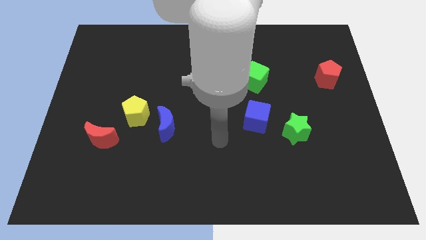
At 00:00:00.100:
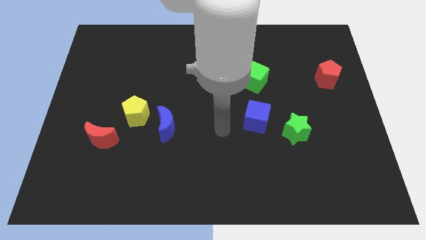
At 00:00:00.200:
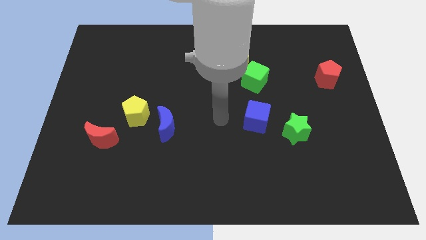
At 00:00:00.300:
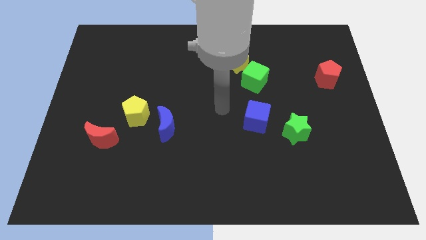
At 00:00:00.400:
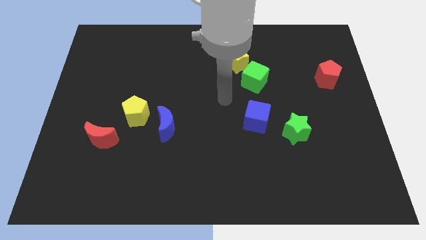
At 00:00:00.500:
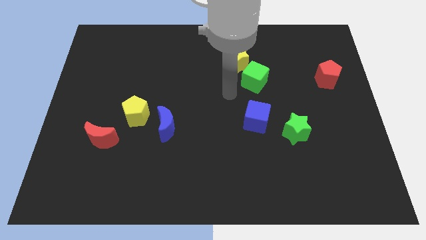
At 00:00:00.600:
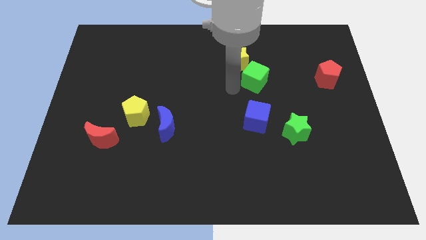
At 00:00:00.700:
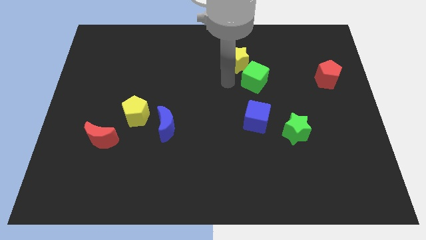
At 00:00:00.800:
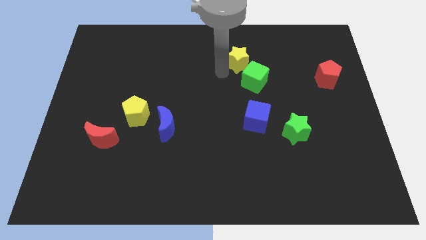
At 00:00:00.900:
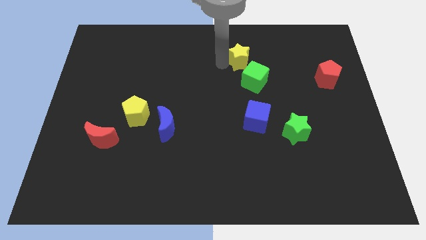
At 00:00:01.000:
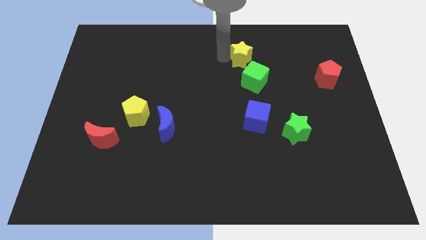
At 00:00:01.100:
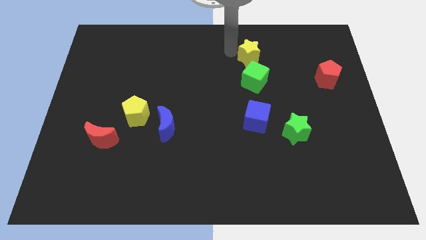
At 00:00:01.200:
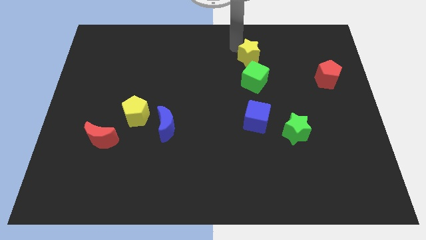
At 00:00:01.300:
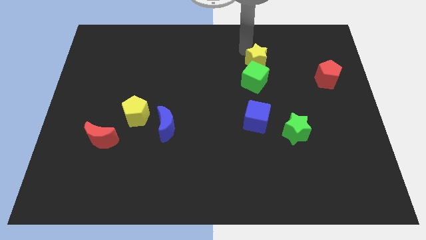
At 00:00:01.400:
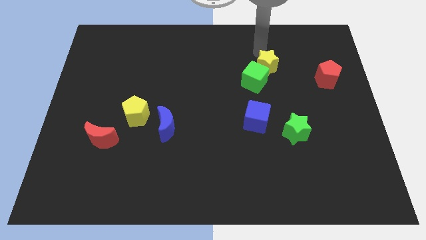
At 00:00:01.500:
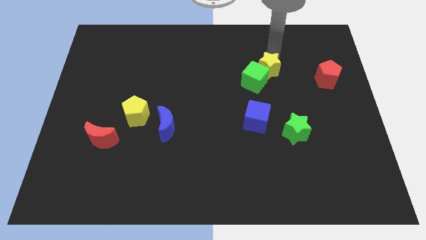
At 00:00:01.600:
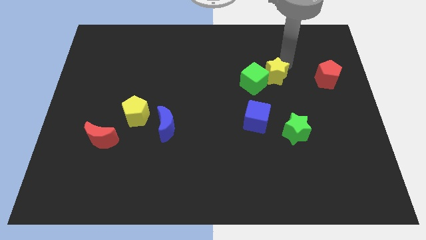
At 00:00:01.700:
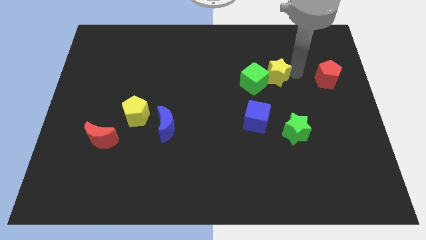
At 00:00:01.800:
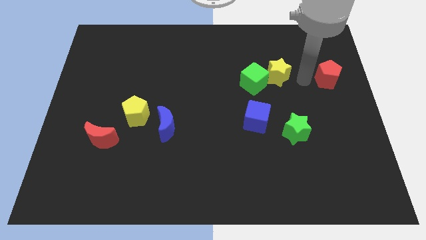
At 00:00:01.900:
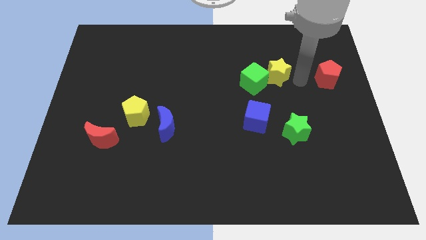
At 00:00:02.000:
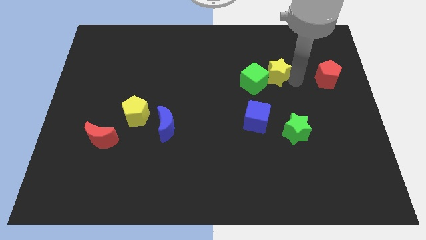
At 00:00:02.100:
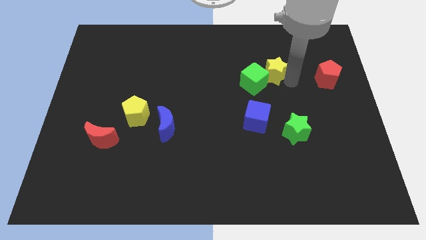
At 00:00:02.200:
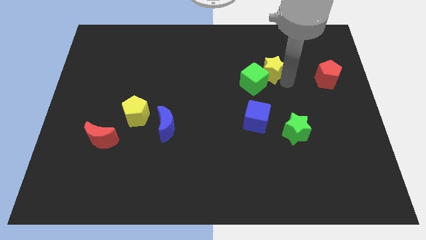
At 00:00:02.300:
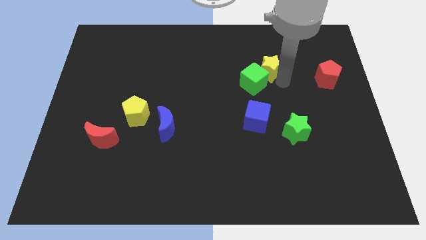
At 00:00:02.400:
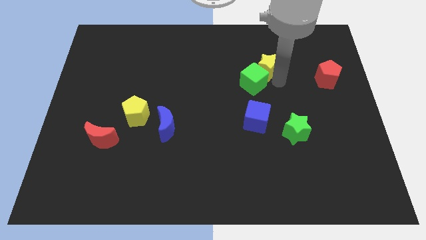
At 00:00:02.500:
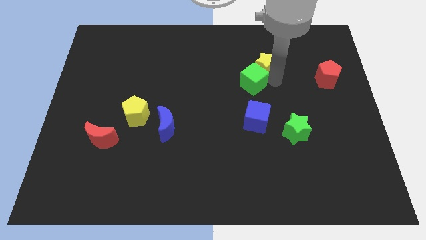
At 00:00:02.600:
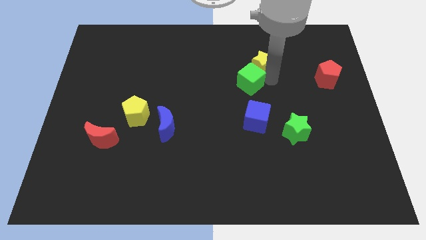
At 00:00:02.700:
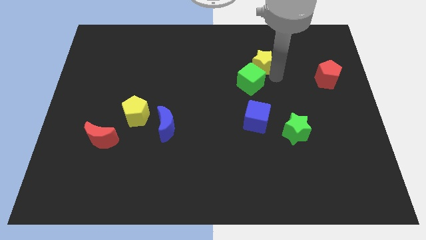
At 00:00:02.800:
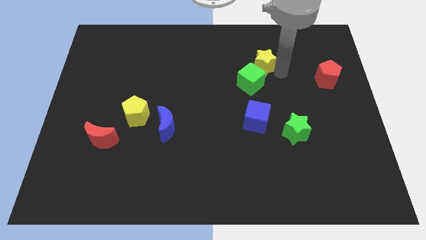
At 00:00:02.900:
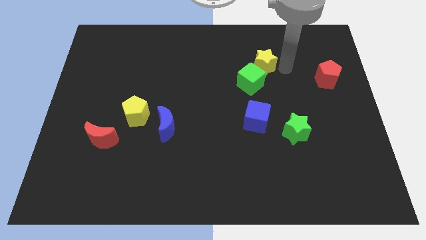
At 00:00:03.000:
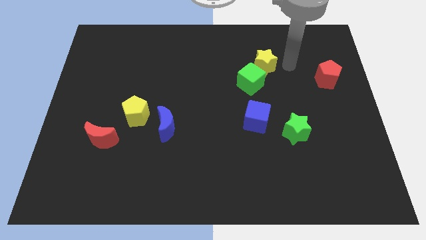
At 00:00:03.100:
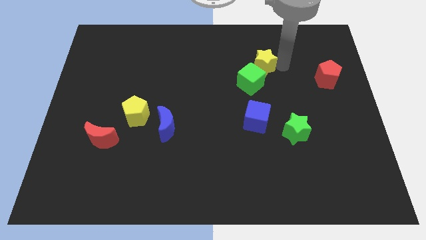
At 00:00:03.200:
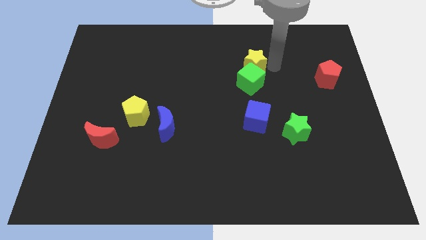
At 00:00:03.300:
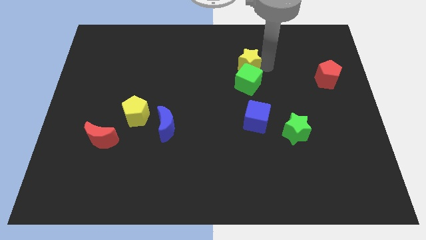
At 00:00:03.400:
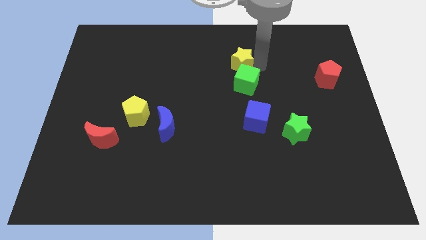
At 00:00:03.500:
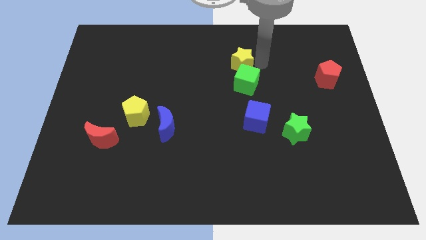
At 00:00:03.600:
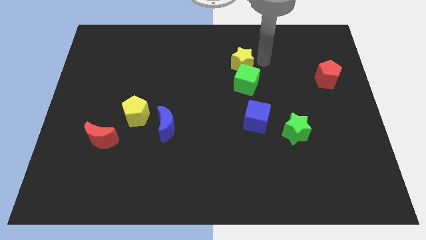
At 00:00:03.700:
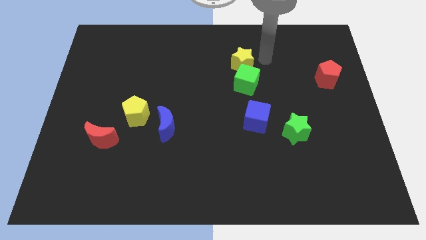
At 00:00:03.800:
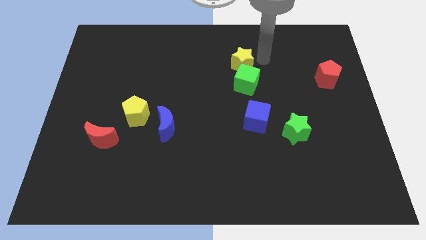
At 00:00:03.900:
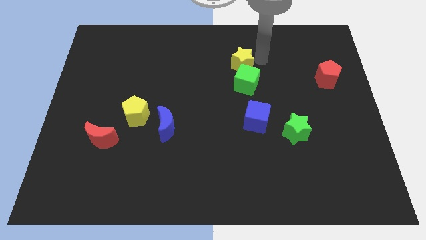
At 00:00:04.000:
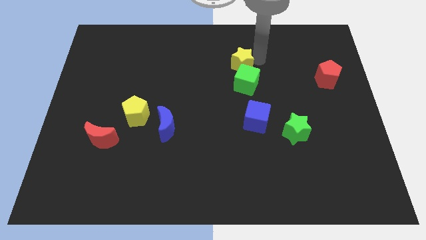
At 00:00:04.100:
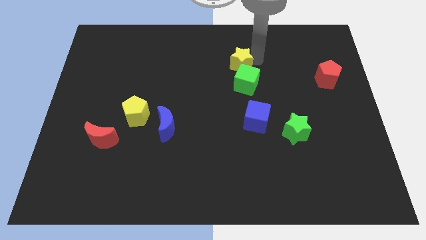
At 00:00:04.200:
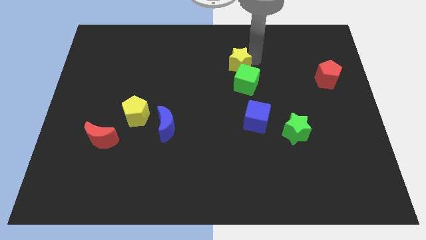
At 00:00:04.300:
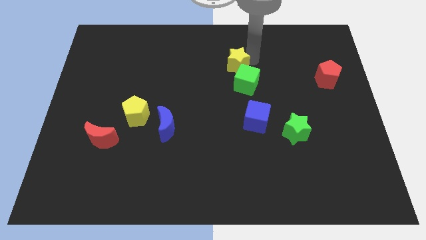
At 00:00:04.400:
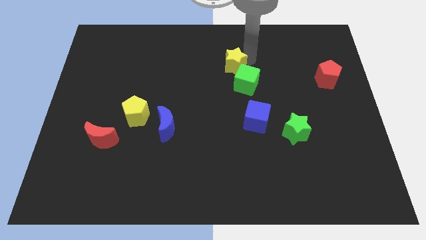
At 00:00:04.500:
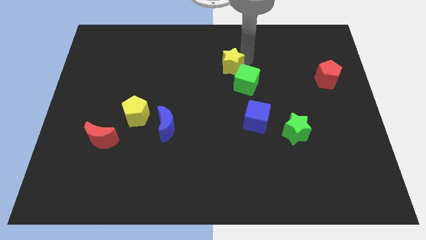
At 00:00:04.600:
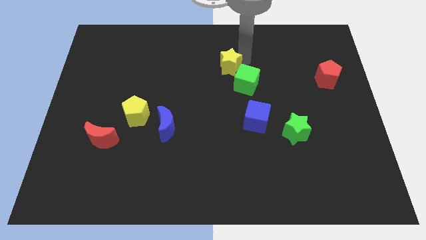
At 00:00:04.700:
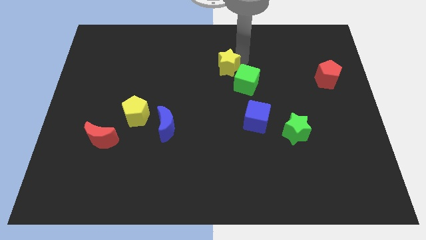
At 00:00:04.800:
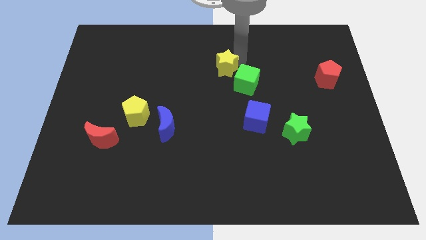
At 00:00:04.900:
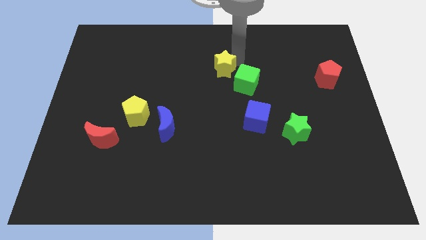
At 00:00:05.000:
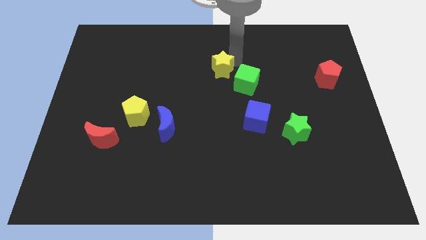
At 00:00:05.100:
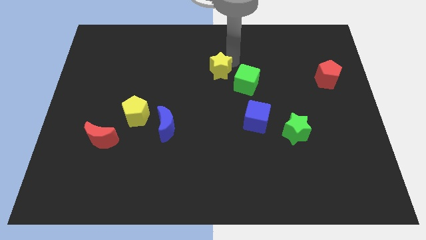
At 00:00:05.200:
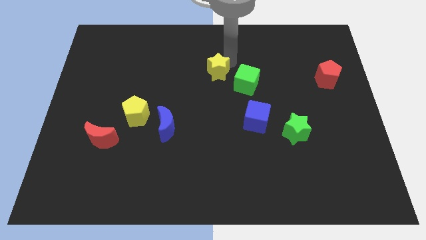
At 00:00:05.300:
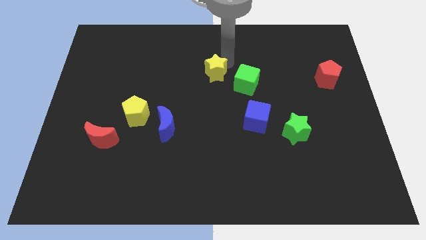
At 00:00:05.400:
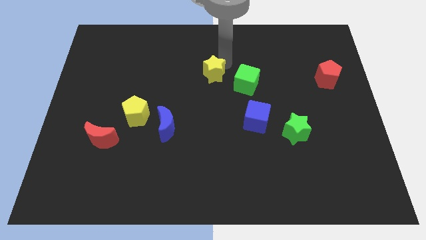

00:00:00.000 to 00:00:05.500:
slide the yellow star somewhat down and then to the left

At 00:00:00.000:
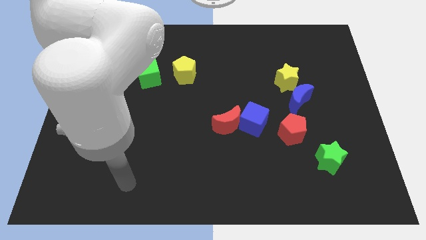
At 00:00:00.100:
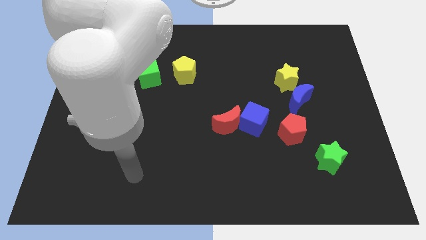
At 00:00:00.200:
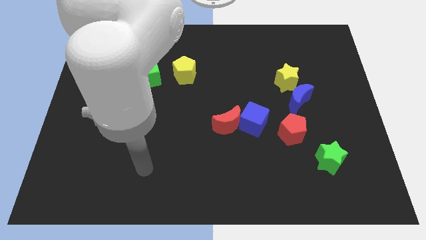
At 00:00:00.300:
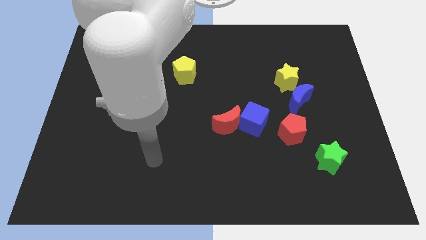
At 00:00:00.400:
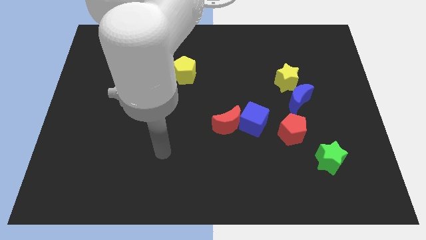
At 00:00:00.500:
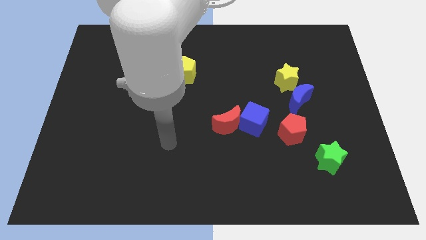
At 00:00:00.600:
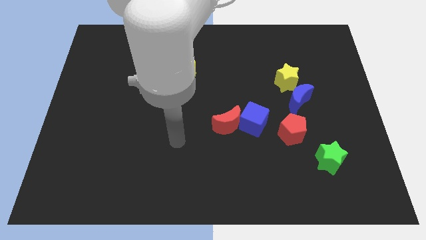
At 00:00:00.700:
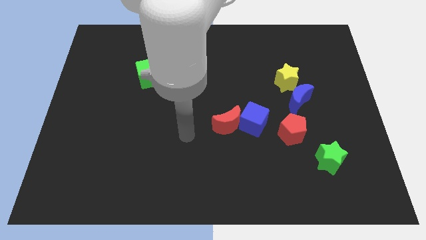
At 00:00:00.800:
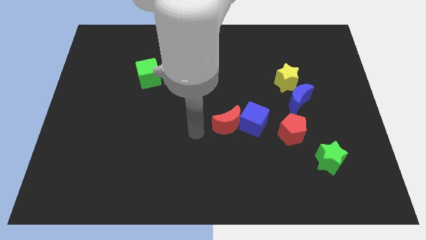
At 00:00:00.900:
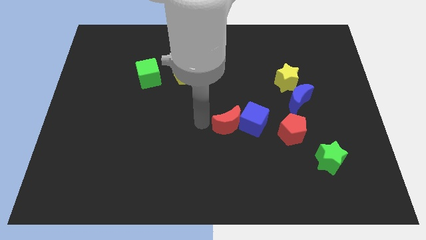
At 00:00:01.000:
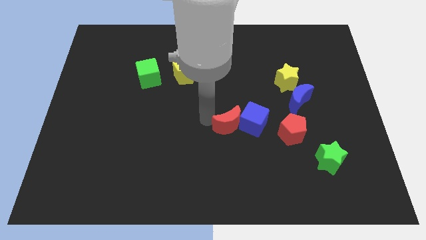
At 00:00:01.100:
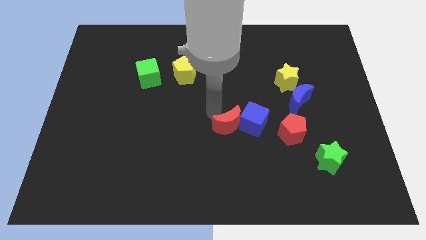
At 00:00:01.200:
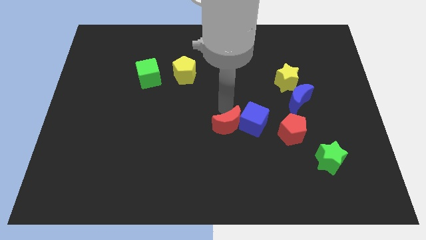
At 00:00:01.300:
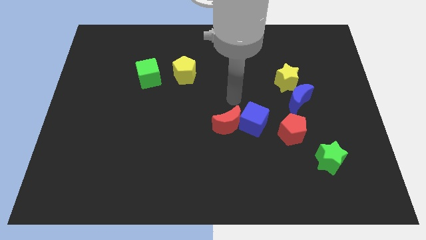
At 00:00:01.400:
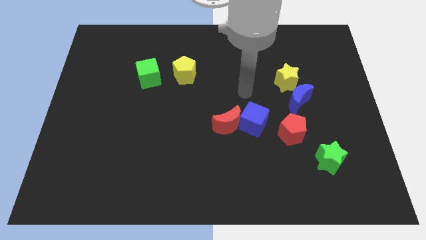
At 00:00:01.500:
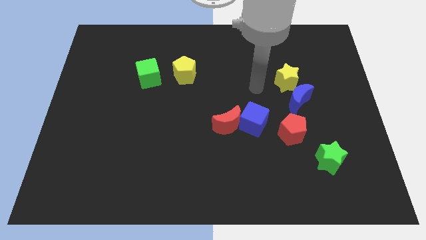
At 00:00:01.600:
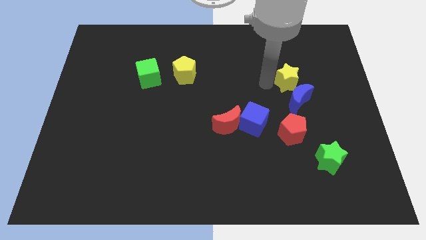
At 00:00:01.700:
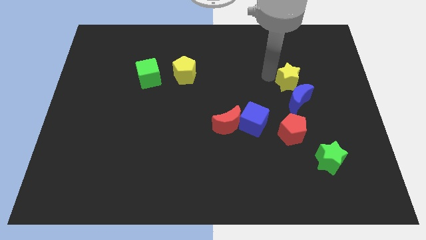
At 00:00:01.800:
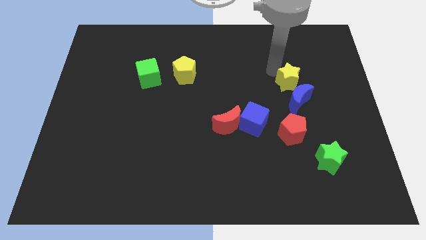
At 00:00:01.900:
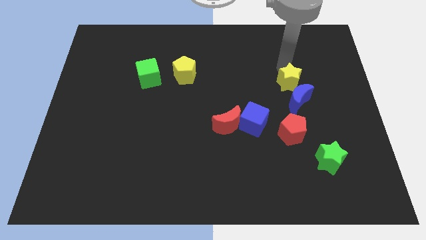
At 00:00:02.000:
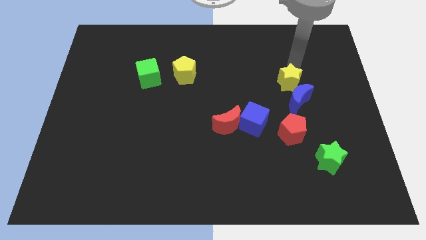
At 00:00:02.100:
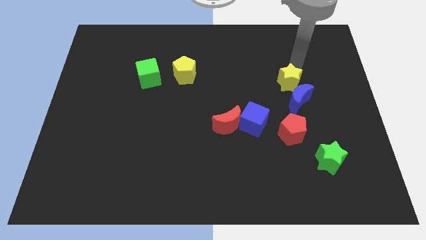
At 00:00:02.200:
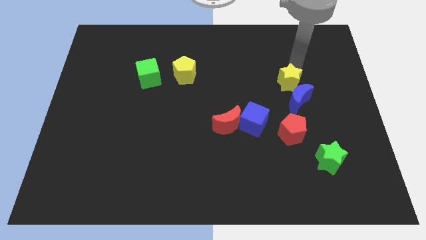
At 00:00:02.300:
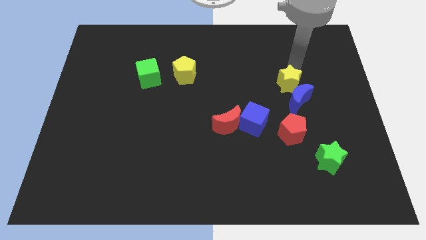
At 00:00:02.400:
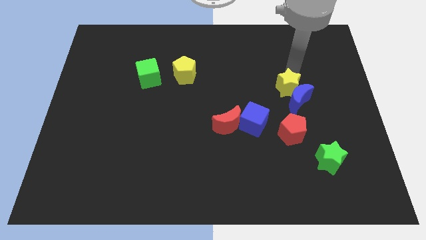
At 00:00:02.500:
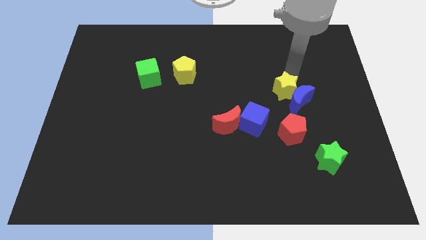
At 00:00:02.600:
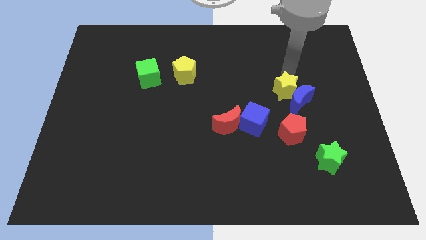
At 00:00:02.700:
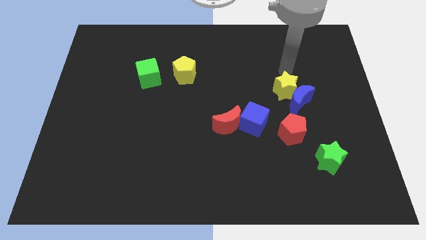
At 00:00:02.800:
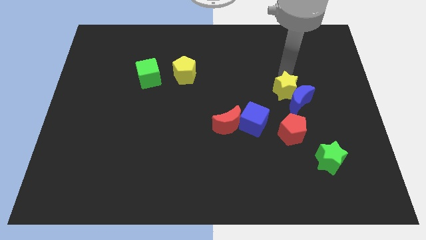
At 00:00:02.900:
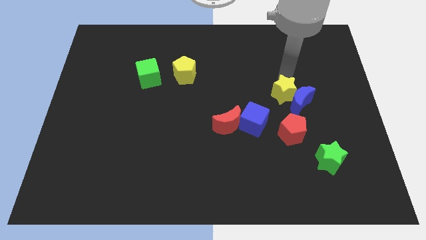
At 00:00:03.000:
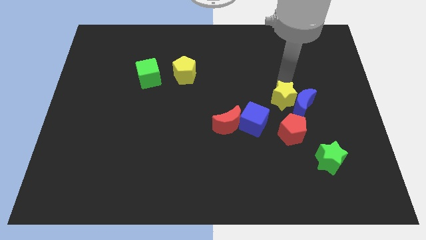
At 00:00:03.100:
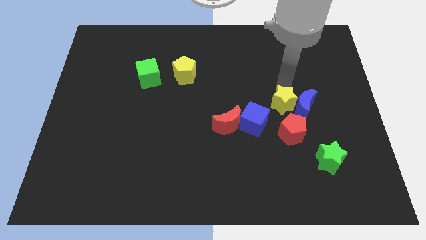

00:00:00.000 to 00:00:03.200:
slightly move the yellow star down
